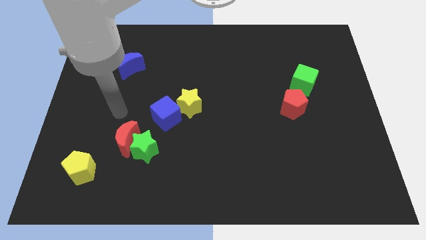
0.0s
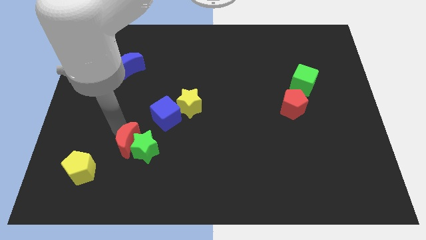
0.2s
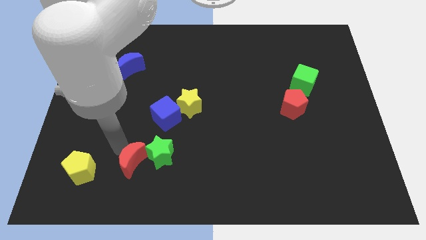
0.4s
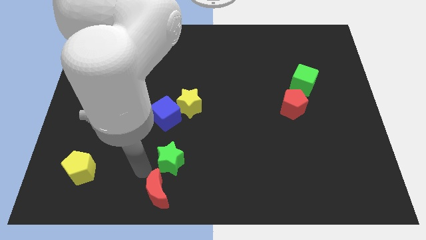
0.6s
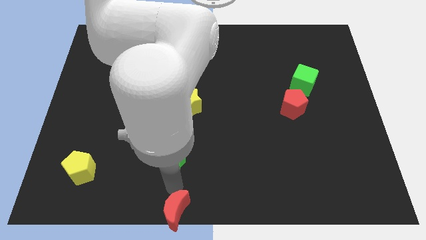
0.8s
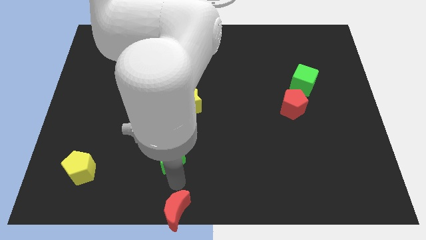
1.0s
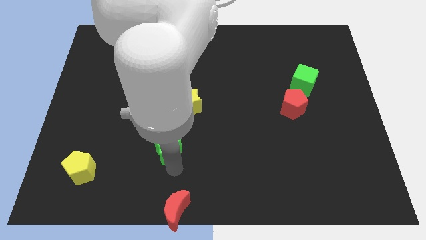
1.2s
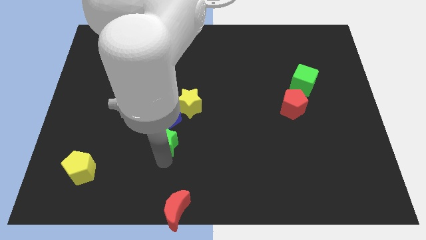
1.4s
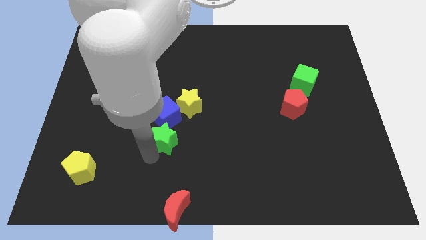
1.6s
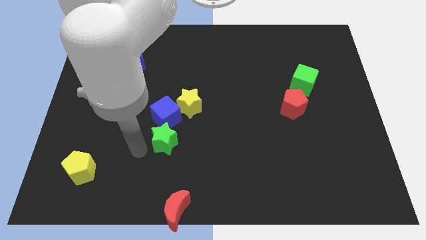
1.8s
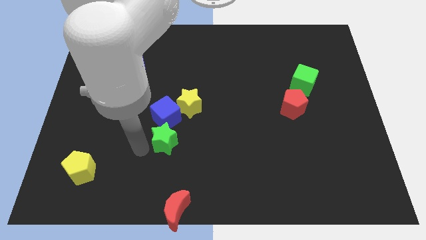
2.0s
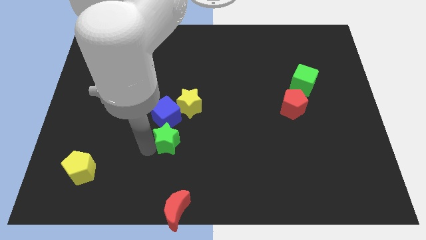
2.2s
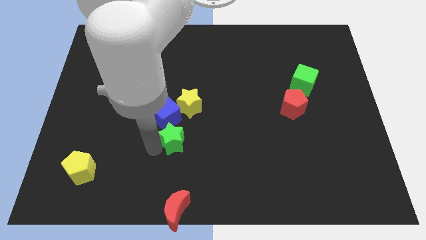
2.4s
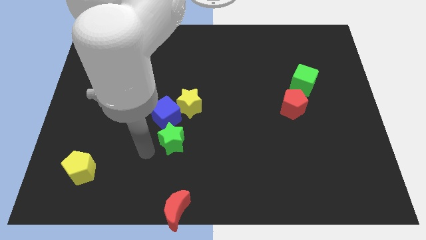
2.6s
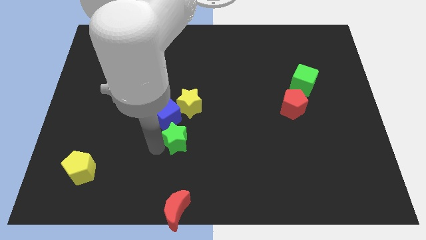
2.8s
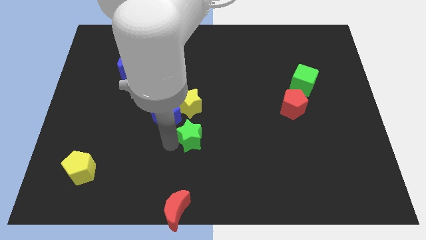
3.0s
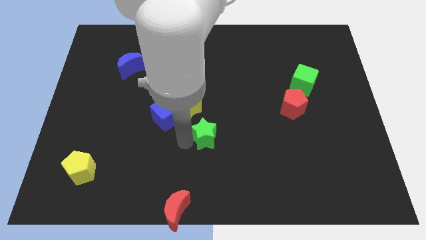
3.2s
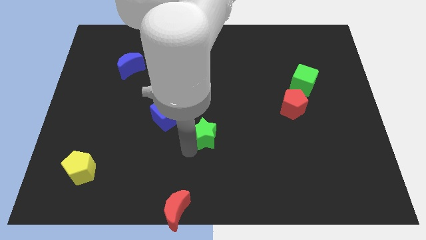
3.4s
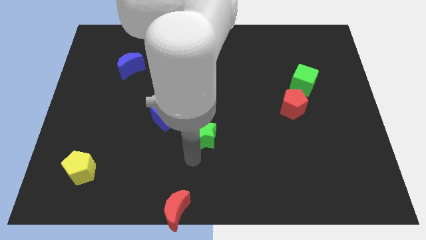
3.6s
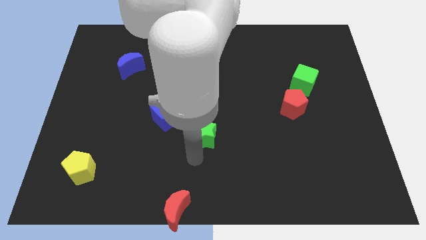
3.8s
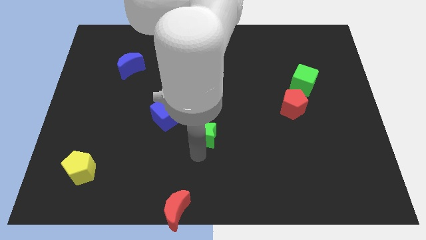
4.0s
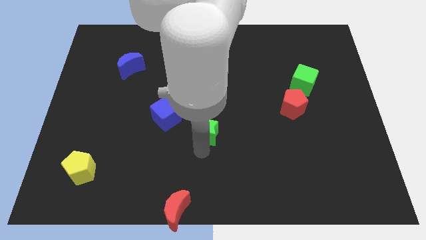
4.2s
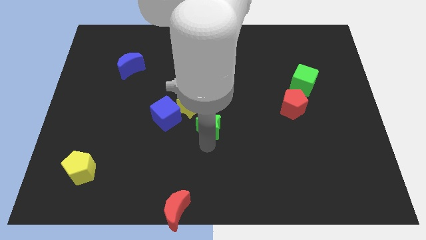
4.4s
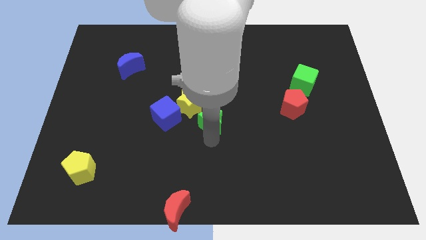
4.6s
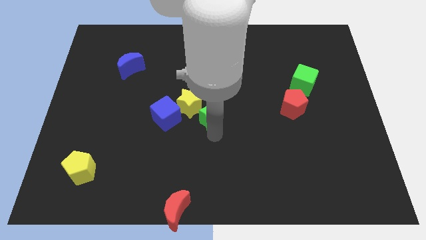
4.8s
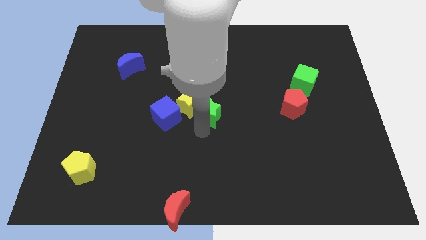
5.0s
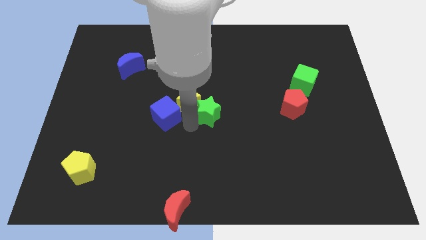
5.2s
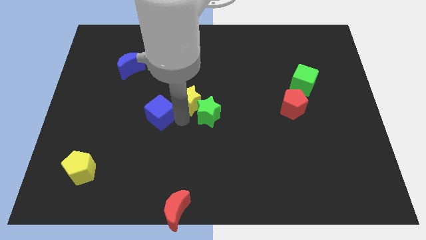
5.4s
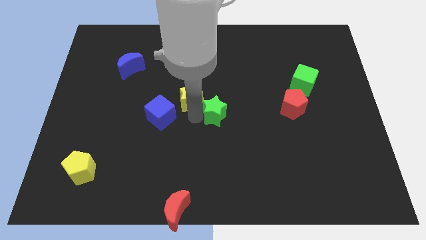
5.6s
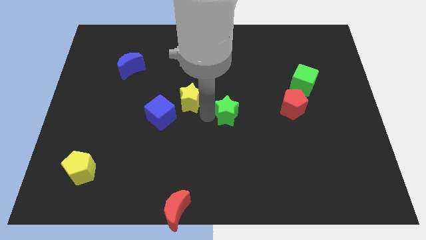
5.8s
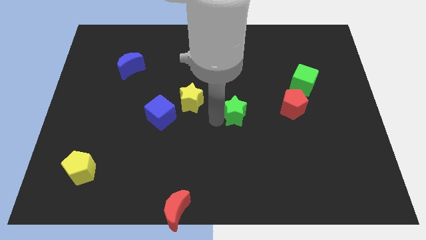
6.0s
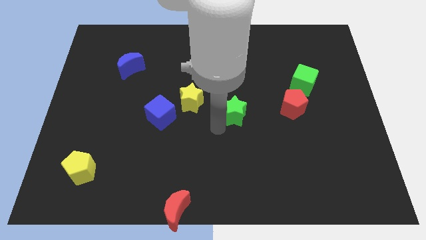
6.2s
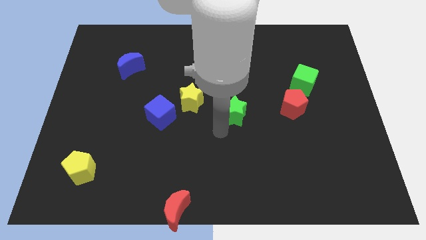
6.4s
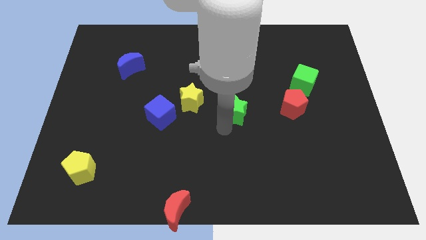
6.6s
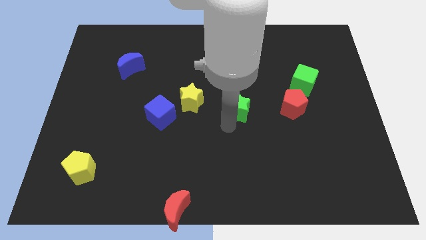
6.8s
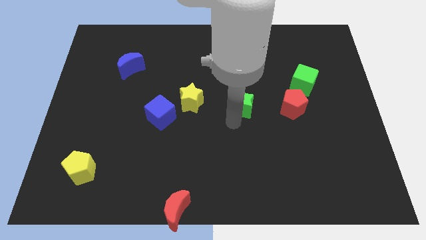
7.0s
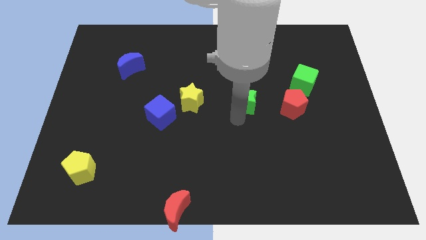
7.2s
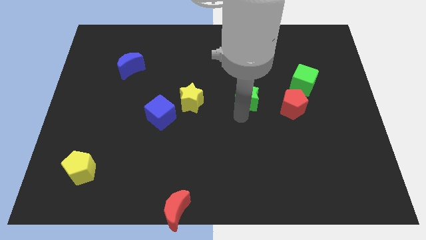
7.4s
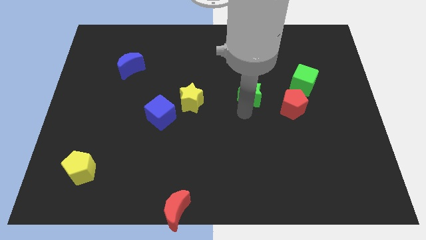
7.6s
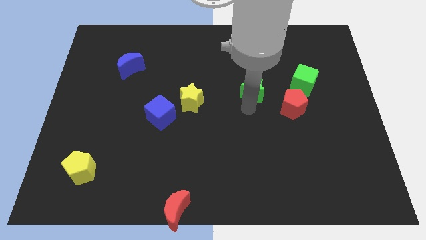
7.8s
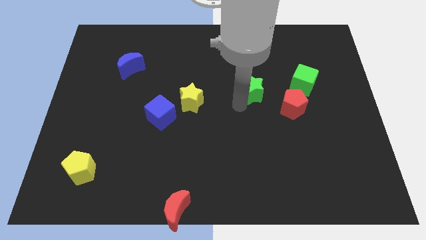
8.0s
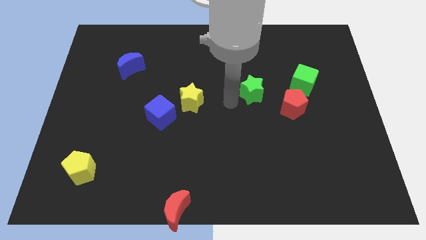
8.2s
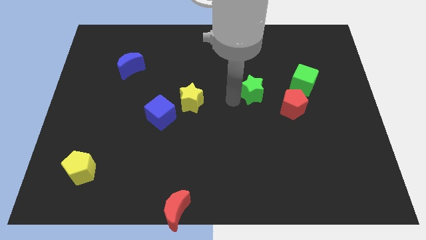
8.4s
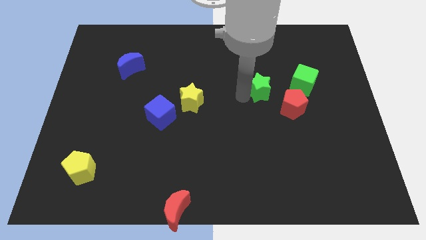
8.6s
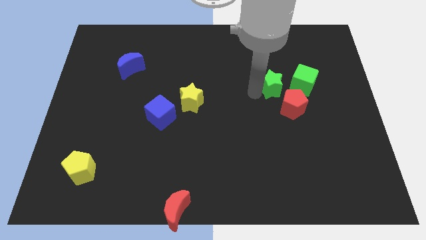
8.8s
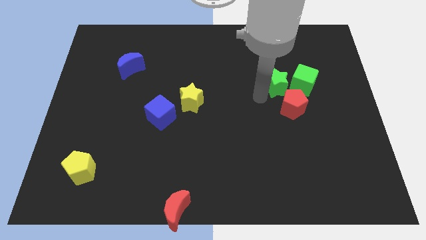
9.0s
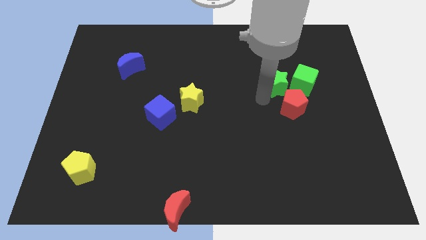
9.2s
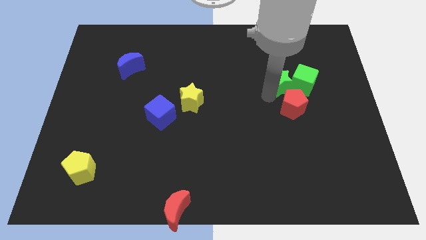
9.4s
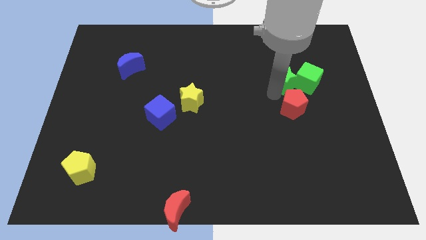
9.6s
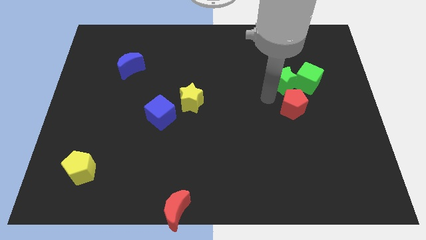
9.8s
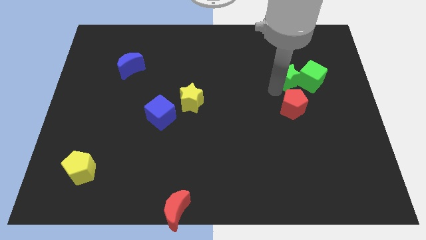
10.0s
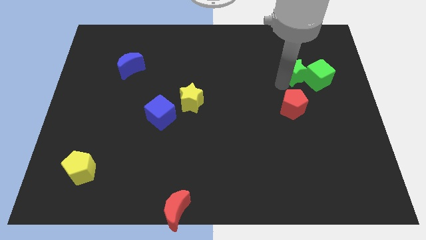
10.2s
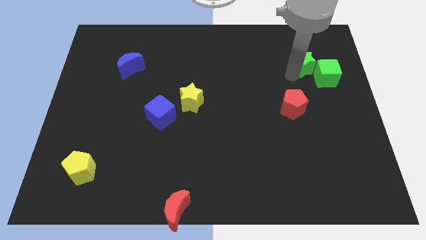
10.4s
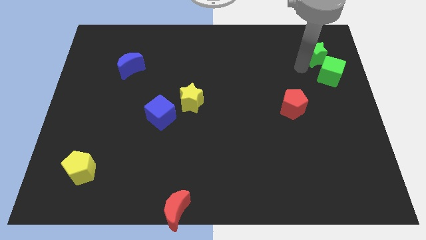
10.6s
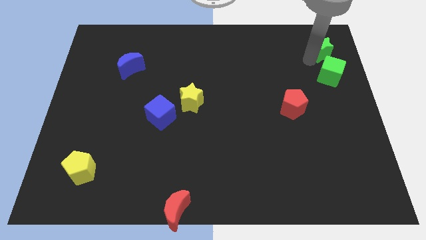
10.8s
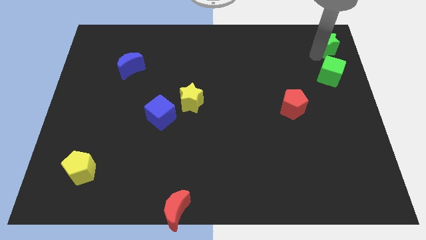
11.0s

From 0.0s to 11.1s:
slide the green star to the upper right corner

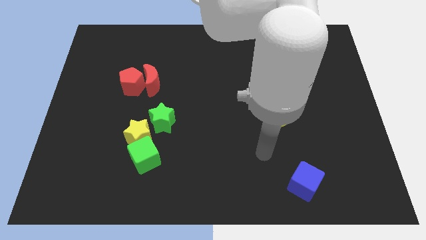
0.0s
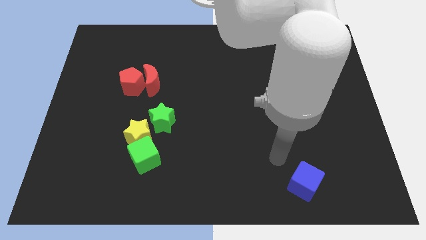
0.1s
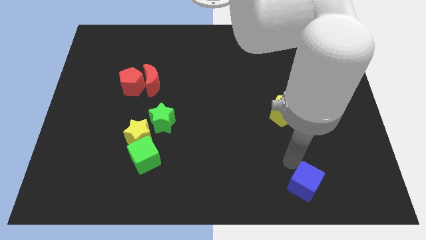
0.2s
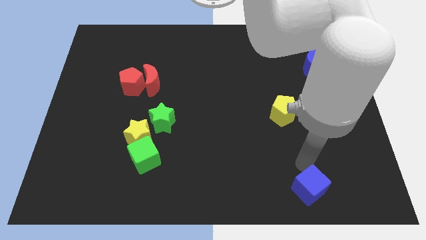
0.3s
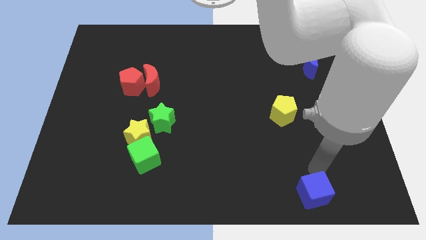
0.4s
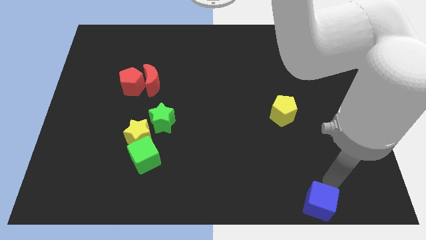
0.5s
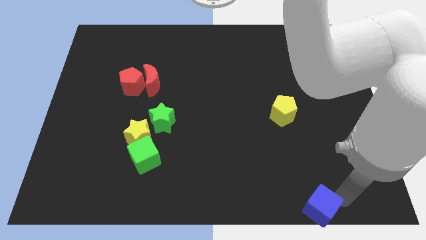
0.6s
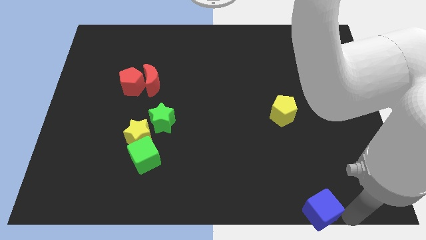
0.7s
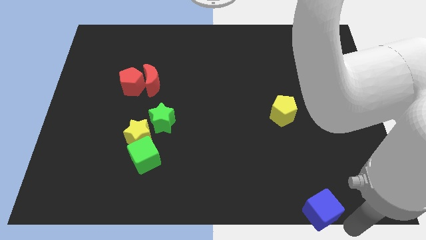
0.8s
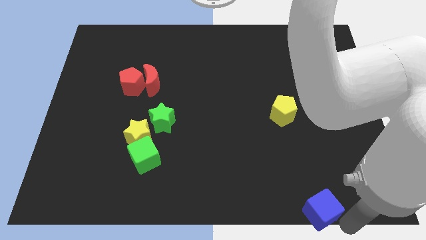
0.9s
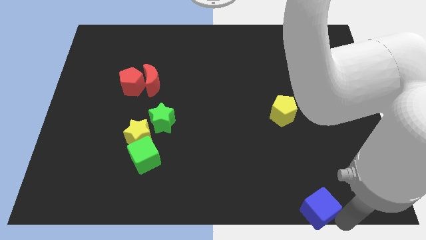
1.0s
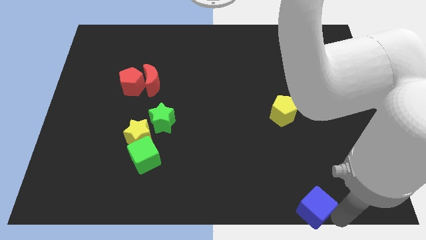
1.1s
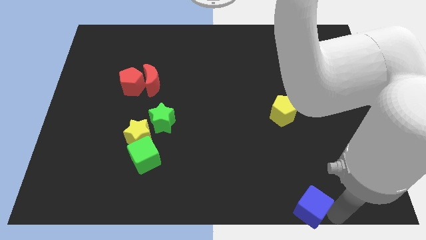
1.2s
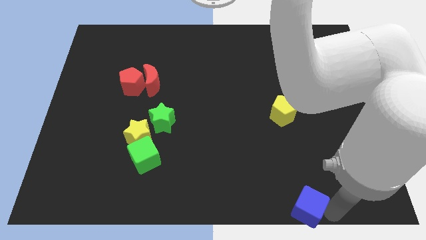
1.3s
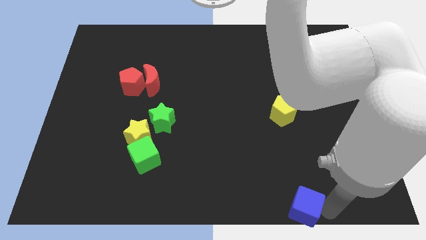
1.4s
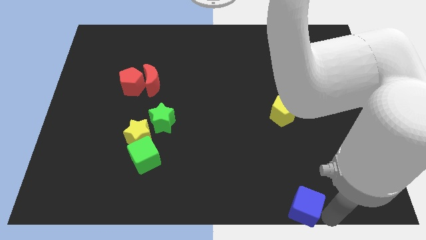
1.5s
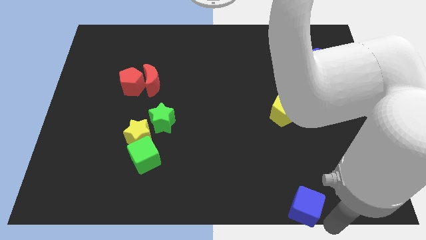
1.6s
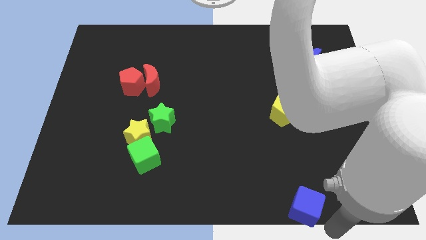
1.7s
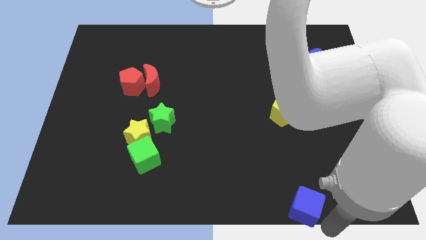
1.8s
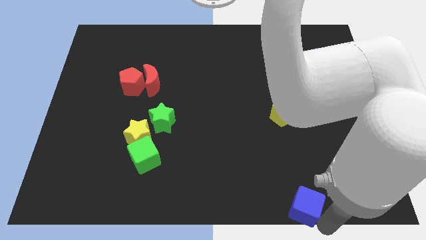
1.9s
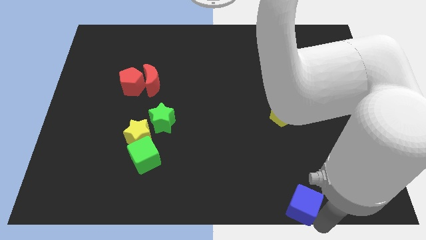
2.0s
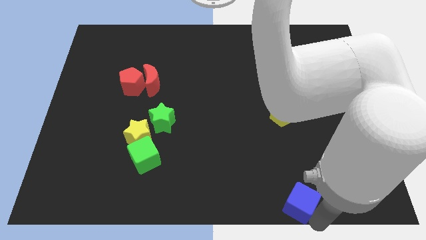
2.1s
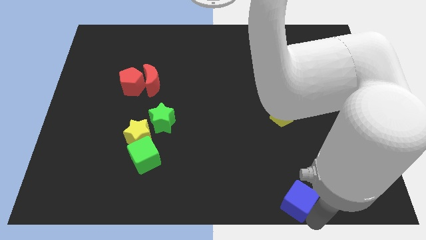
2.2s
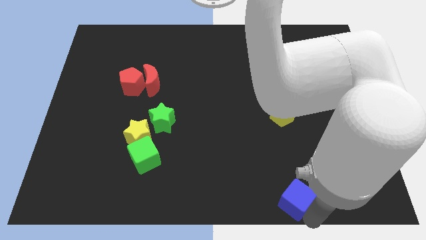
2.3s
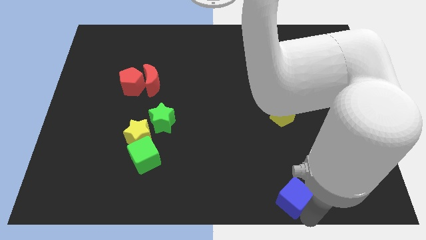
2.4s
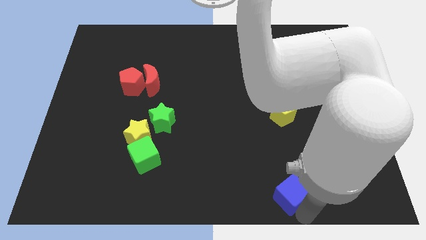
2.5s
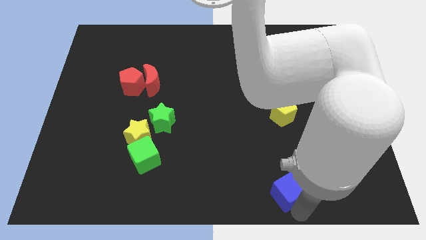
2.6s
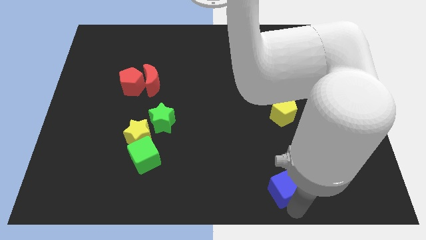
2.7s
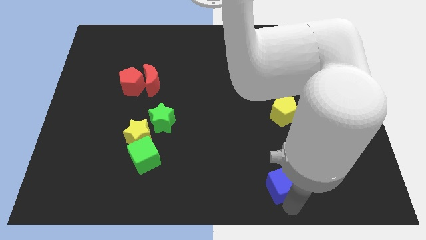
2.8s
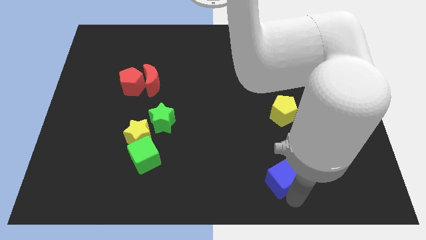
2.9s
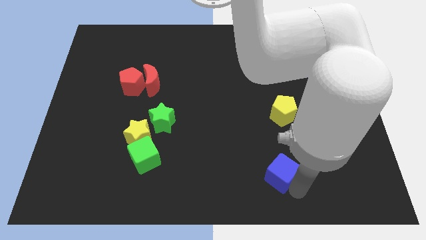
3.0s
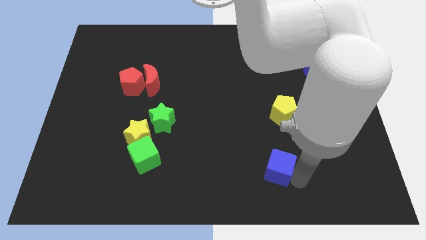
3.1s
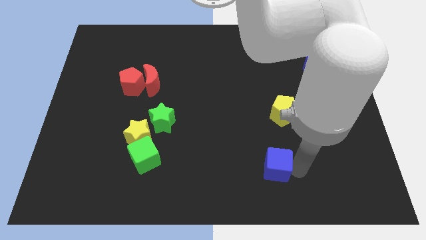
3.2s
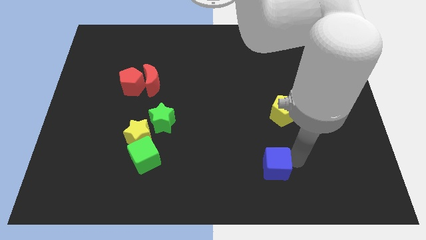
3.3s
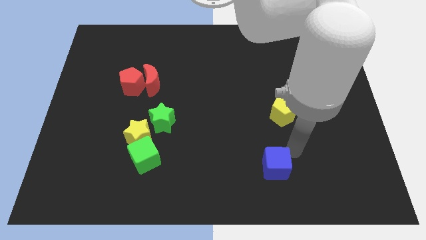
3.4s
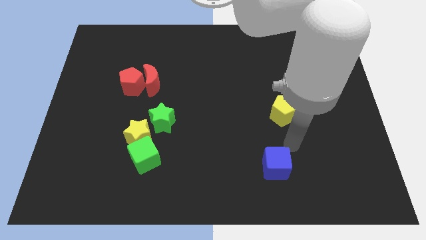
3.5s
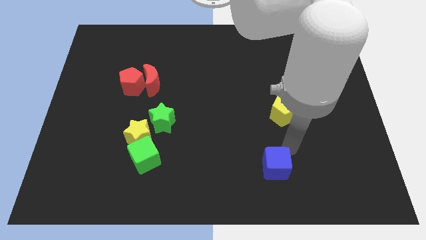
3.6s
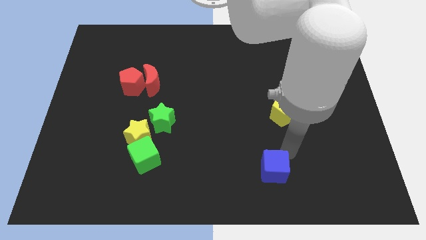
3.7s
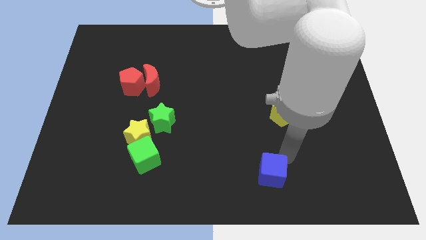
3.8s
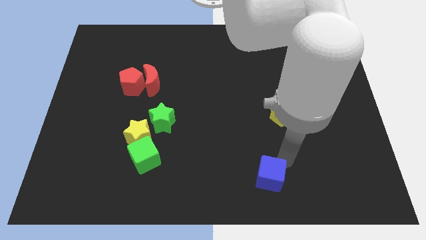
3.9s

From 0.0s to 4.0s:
slide the blue cube to the bottom side
